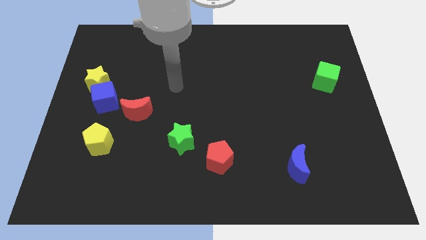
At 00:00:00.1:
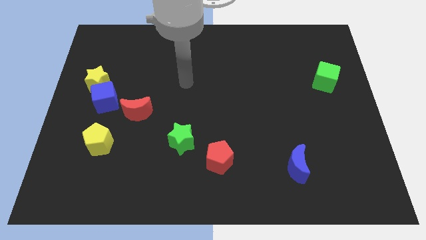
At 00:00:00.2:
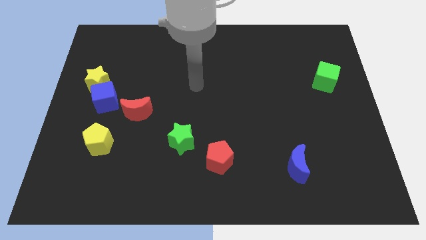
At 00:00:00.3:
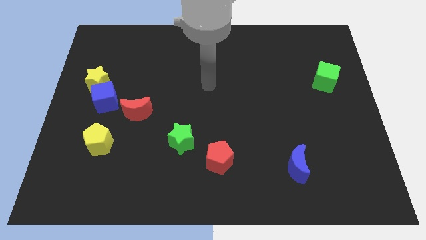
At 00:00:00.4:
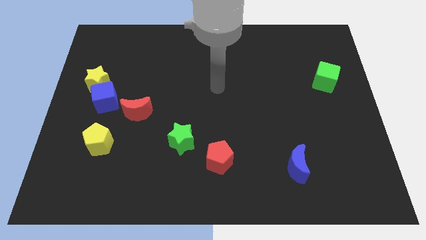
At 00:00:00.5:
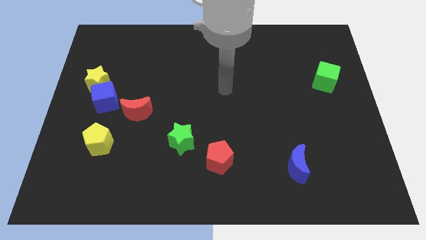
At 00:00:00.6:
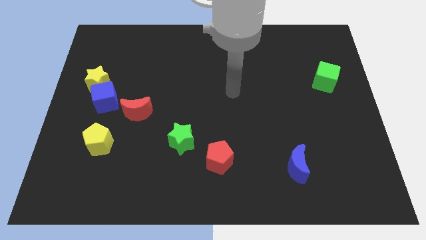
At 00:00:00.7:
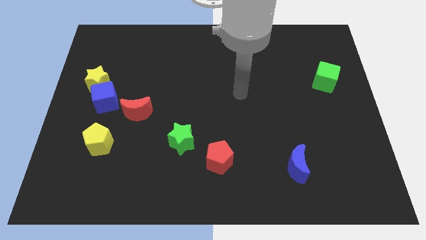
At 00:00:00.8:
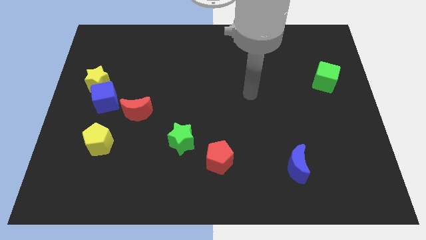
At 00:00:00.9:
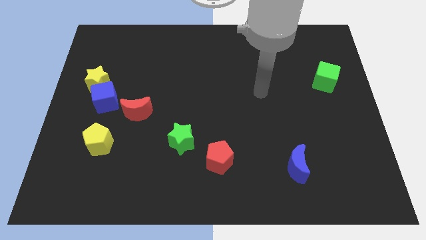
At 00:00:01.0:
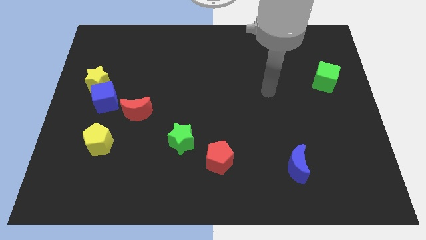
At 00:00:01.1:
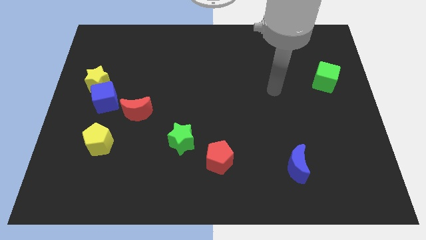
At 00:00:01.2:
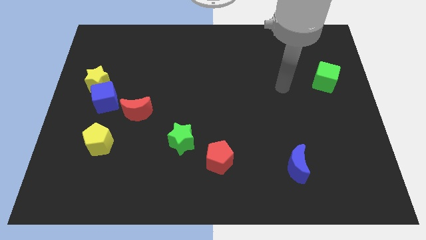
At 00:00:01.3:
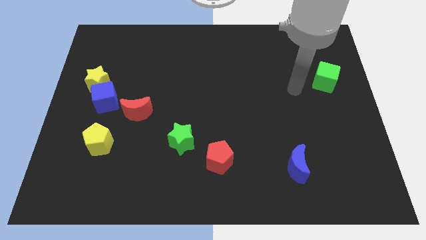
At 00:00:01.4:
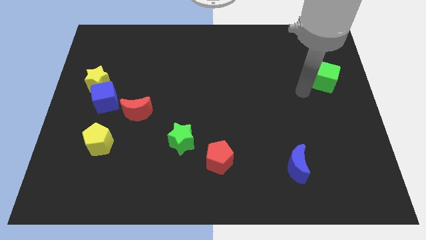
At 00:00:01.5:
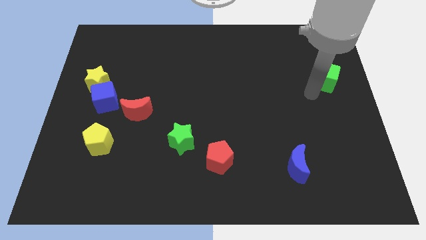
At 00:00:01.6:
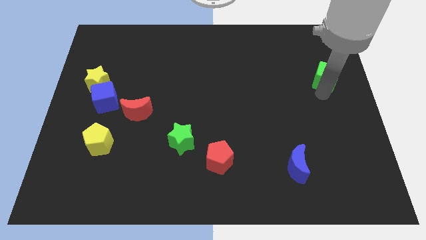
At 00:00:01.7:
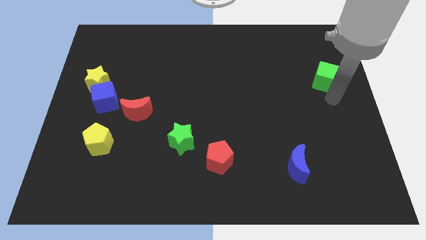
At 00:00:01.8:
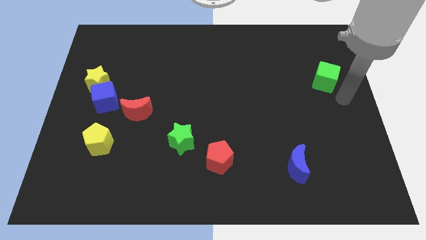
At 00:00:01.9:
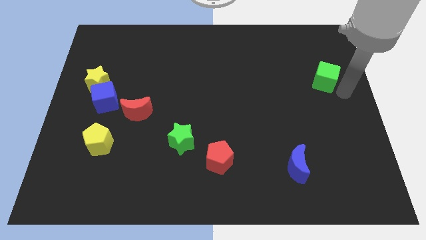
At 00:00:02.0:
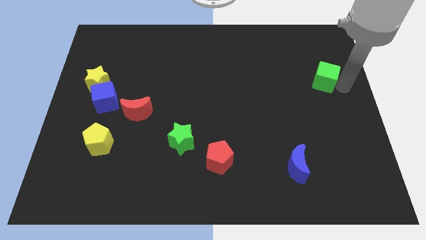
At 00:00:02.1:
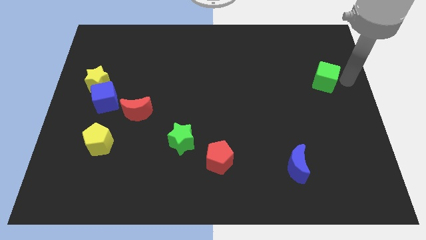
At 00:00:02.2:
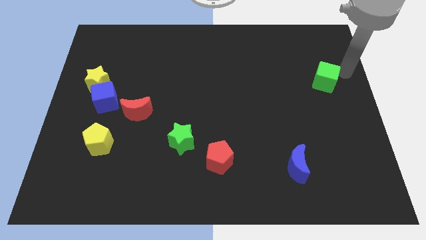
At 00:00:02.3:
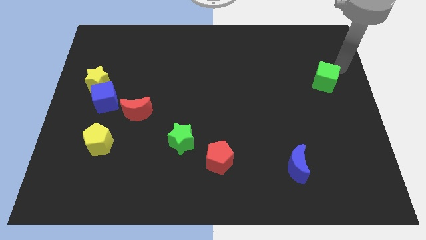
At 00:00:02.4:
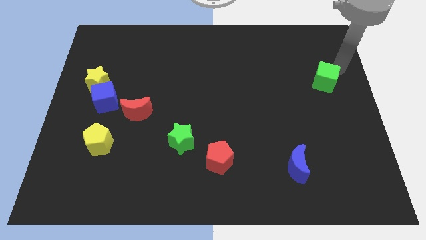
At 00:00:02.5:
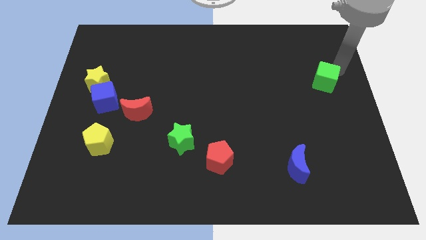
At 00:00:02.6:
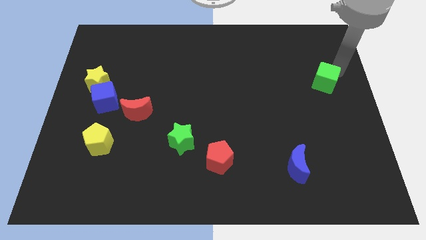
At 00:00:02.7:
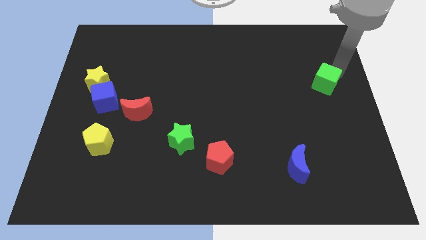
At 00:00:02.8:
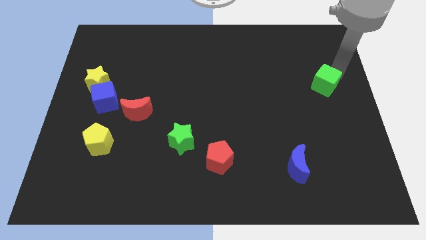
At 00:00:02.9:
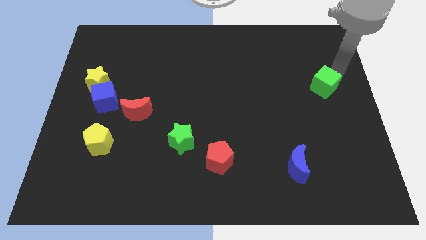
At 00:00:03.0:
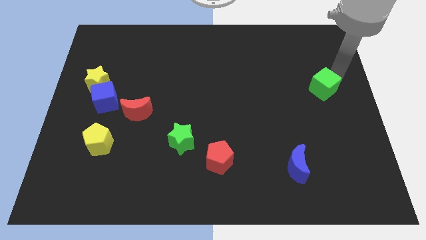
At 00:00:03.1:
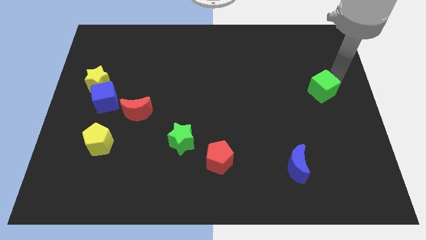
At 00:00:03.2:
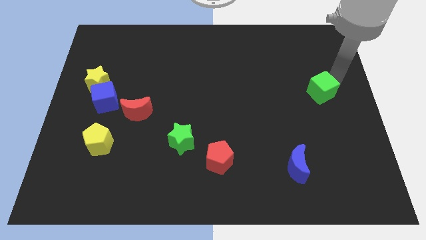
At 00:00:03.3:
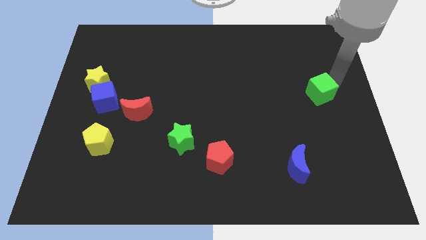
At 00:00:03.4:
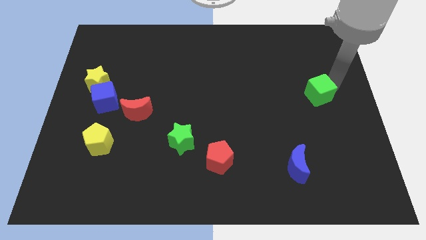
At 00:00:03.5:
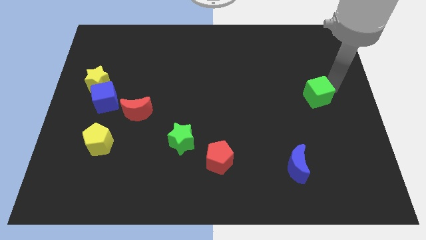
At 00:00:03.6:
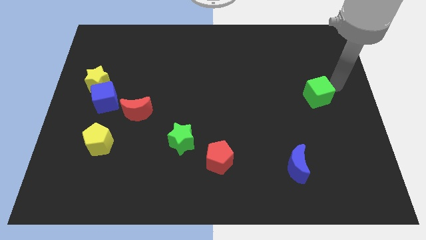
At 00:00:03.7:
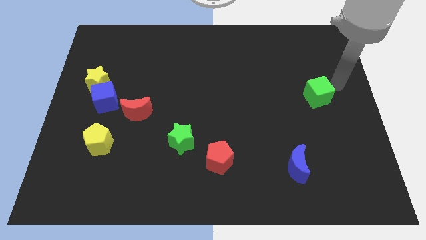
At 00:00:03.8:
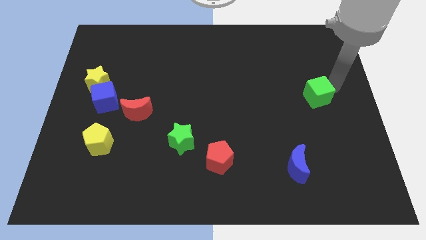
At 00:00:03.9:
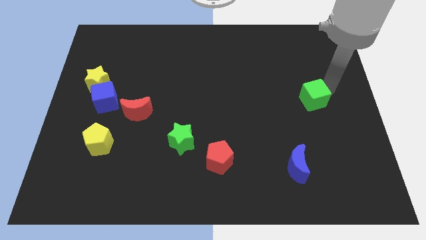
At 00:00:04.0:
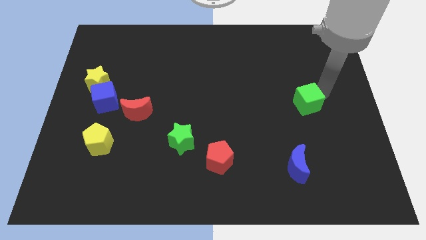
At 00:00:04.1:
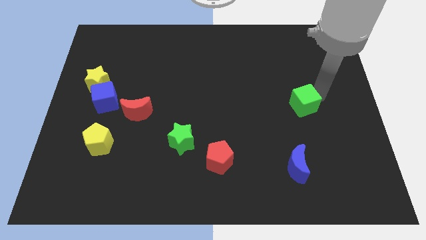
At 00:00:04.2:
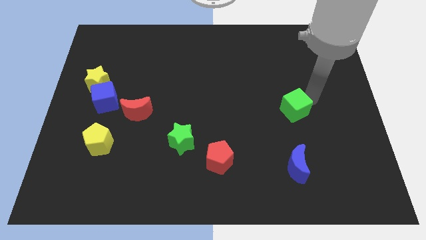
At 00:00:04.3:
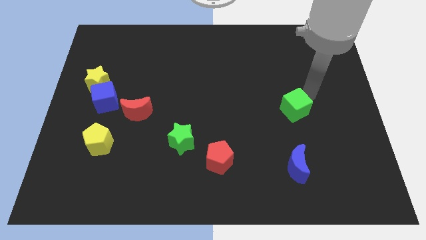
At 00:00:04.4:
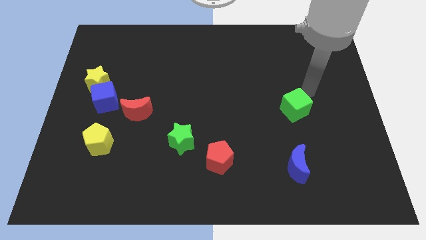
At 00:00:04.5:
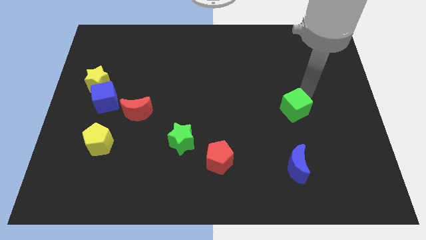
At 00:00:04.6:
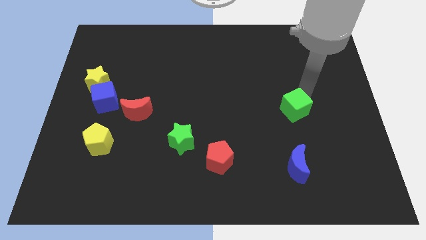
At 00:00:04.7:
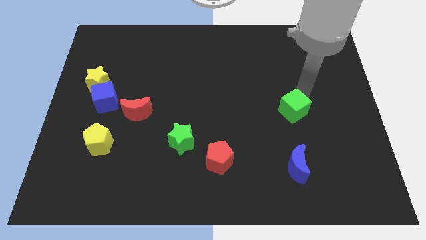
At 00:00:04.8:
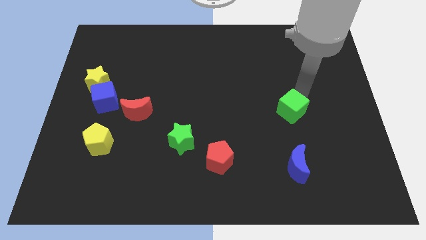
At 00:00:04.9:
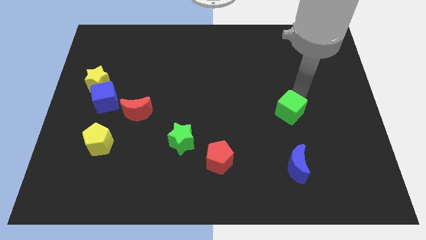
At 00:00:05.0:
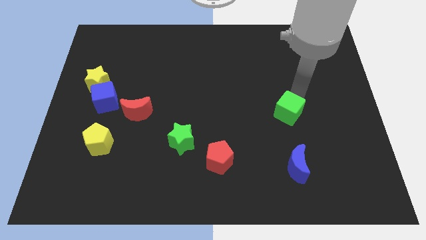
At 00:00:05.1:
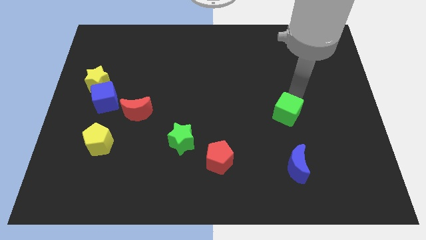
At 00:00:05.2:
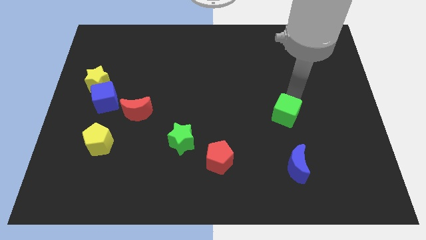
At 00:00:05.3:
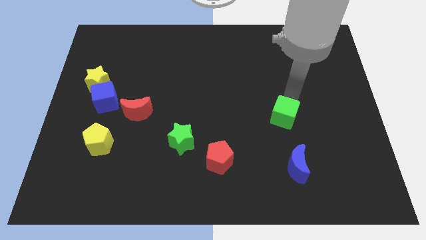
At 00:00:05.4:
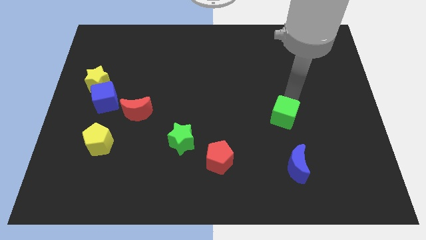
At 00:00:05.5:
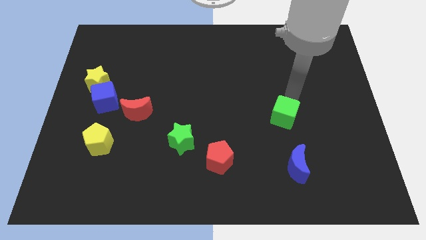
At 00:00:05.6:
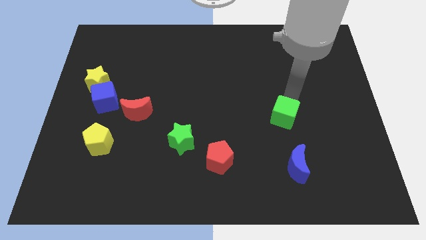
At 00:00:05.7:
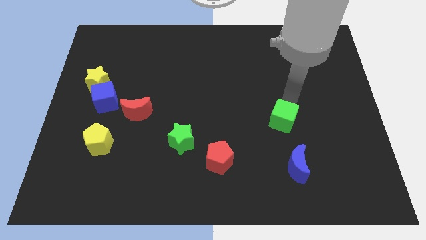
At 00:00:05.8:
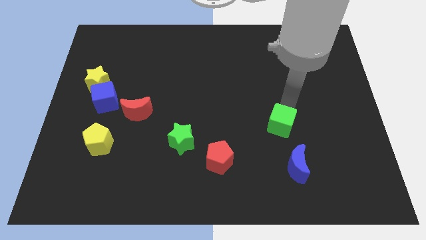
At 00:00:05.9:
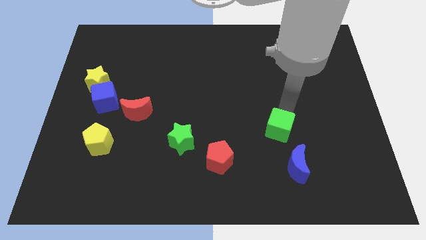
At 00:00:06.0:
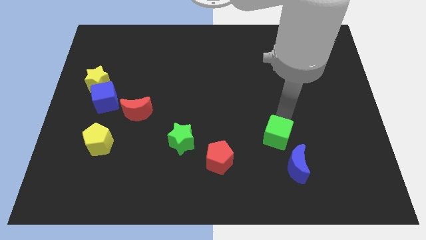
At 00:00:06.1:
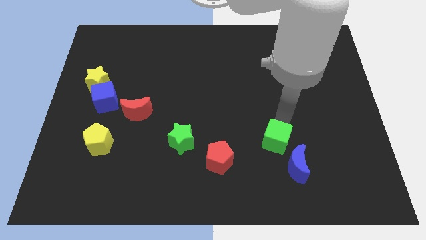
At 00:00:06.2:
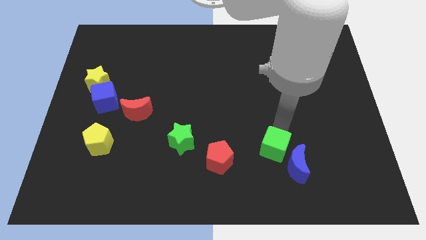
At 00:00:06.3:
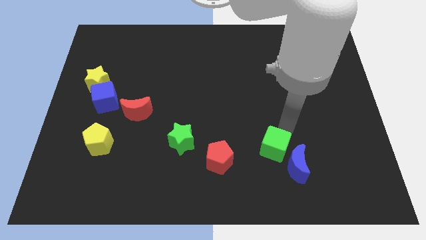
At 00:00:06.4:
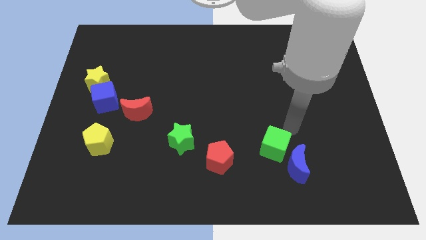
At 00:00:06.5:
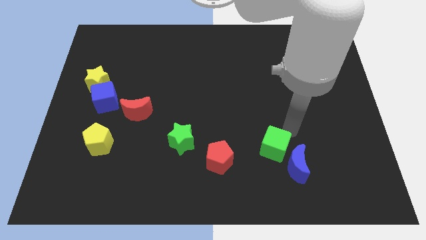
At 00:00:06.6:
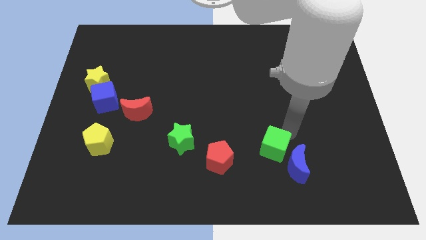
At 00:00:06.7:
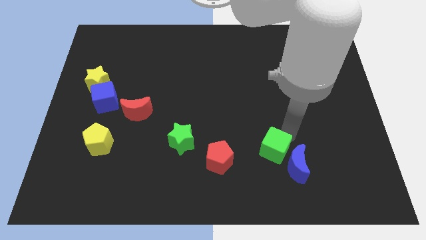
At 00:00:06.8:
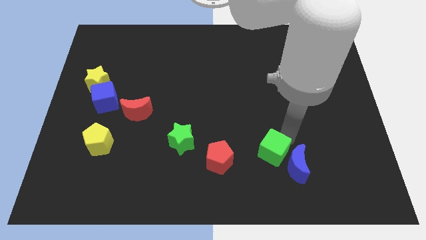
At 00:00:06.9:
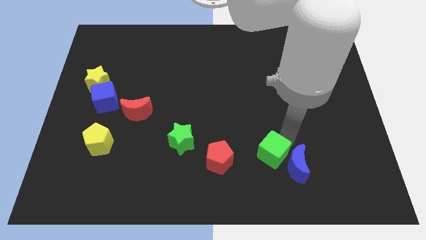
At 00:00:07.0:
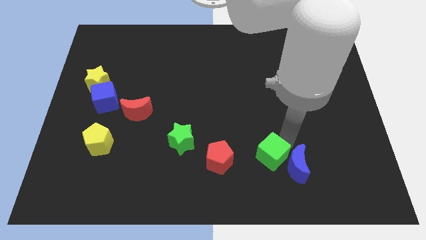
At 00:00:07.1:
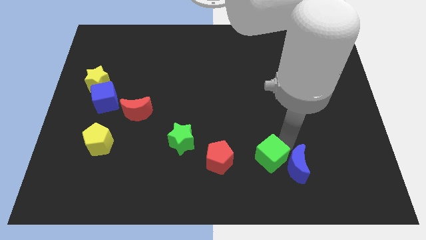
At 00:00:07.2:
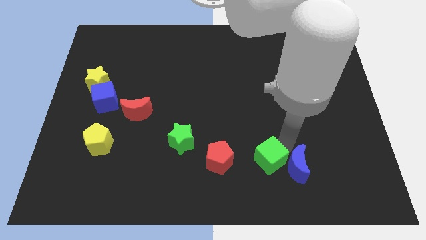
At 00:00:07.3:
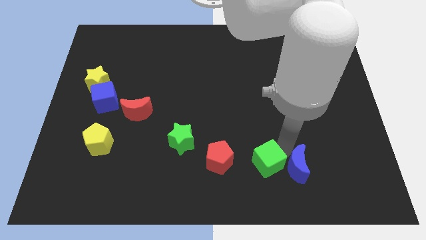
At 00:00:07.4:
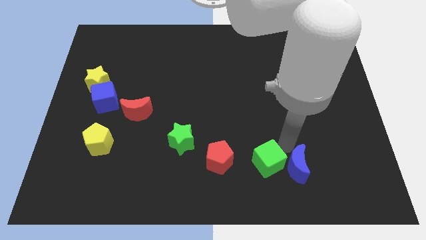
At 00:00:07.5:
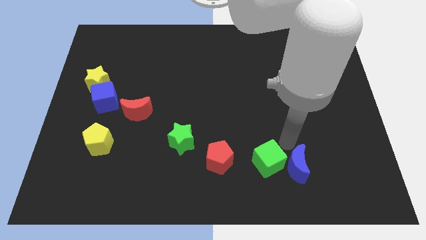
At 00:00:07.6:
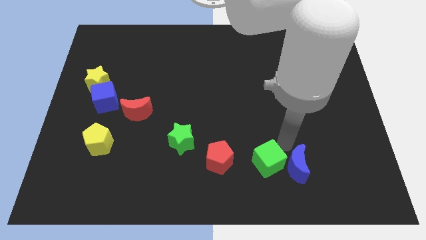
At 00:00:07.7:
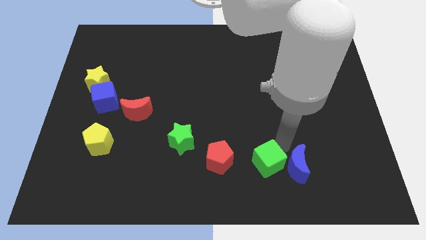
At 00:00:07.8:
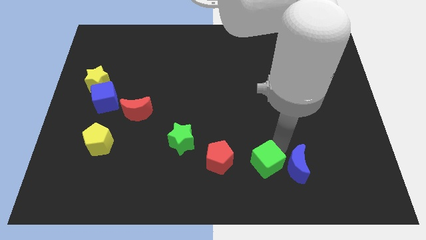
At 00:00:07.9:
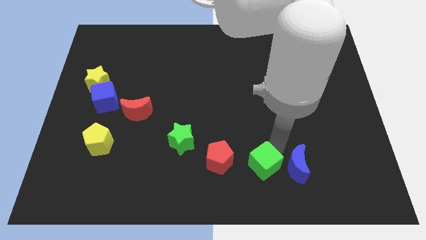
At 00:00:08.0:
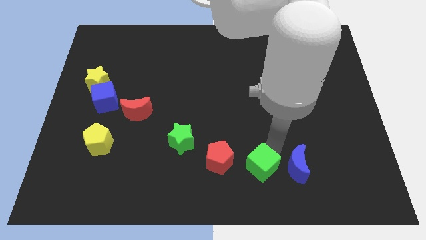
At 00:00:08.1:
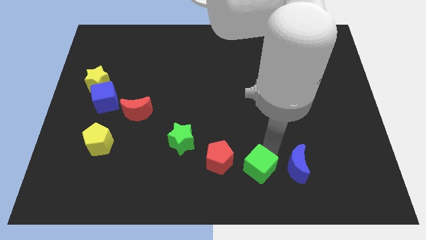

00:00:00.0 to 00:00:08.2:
move the green cube to the bottom right of the red pentagon
